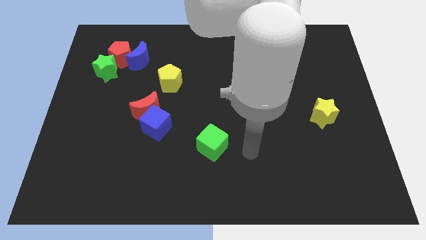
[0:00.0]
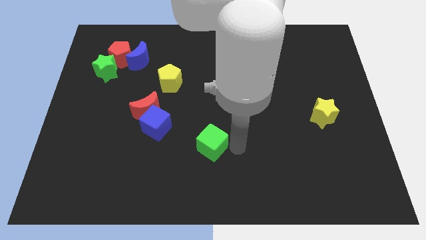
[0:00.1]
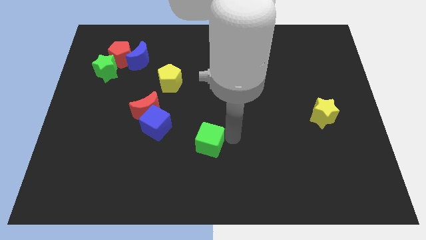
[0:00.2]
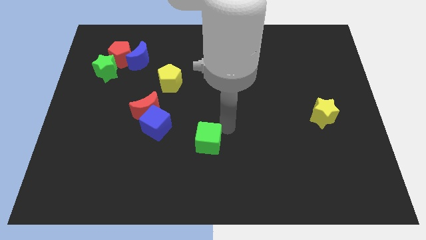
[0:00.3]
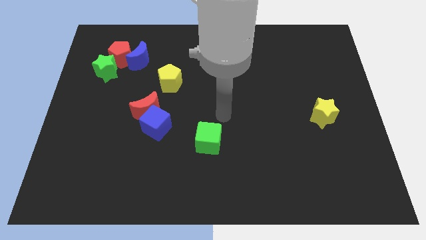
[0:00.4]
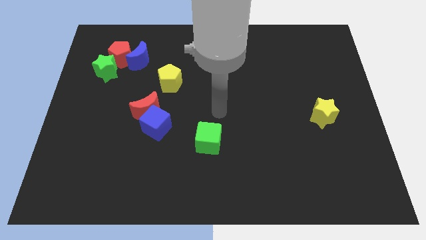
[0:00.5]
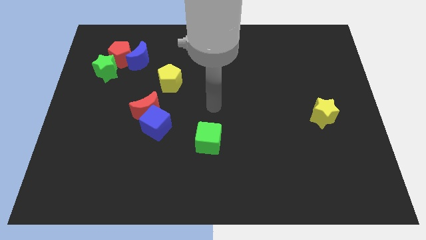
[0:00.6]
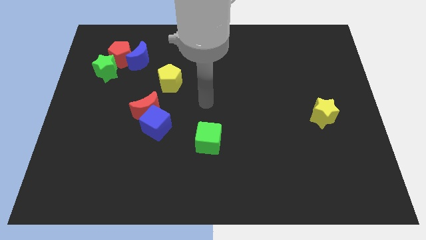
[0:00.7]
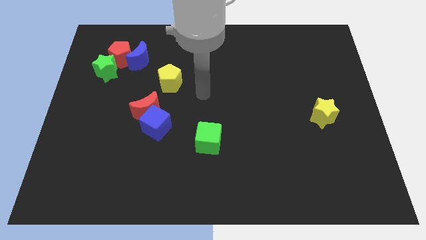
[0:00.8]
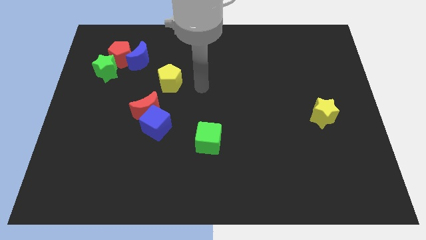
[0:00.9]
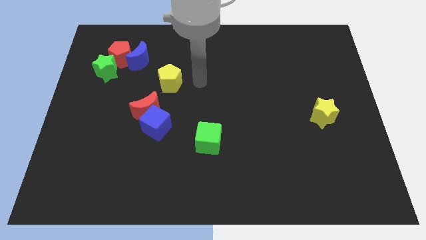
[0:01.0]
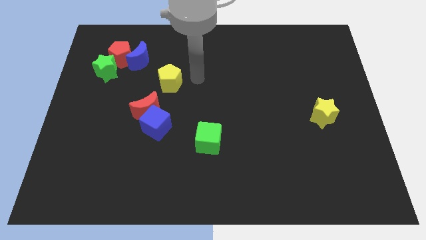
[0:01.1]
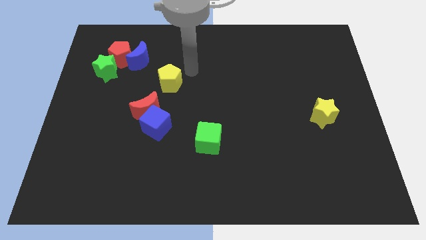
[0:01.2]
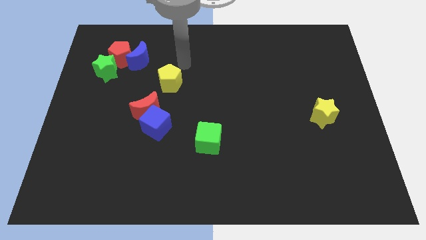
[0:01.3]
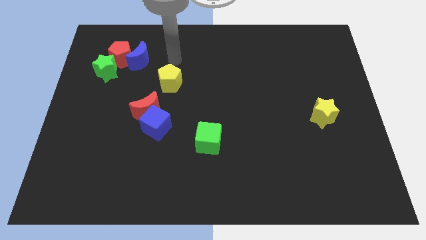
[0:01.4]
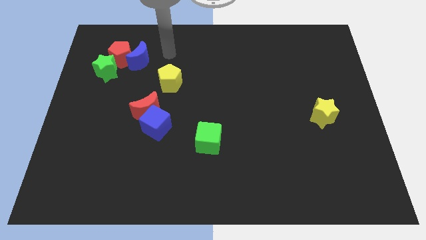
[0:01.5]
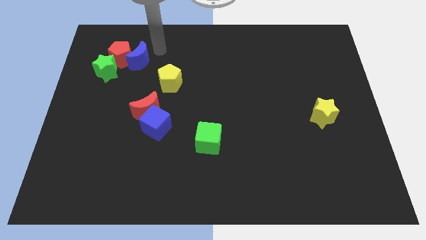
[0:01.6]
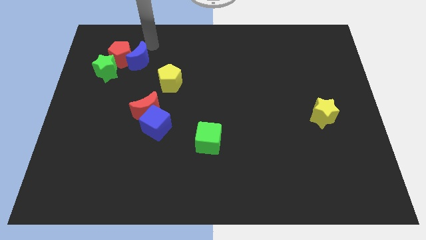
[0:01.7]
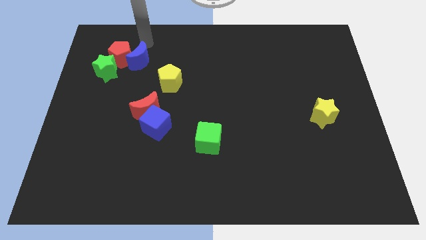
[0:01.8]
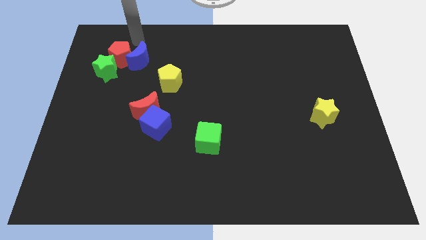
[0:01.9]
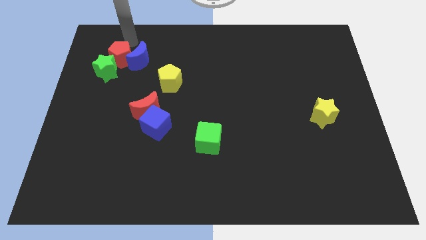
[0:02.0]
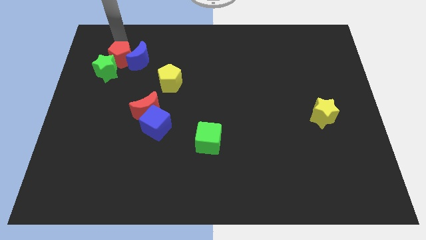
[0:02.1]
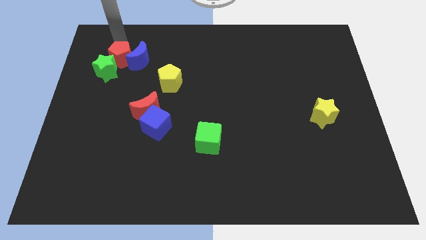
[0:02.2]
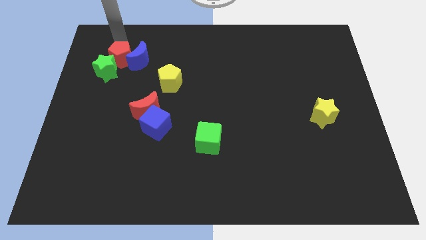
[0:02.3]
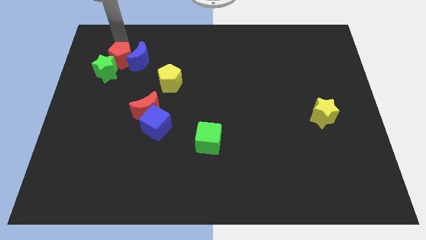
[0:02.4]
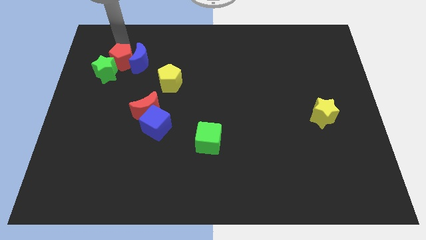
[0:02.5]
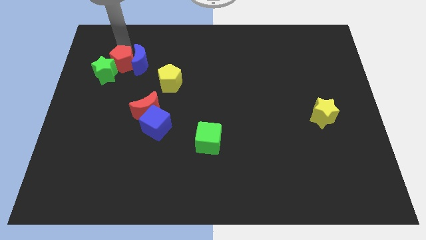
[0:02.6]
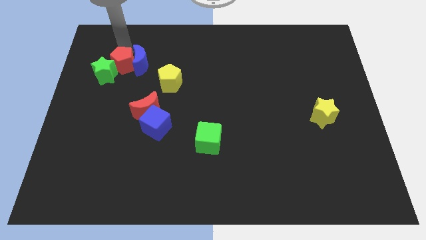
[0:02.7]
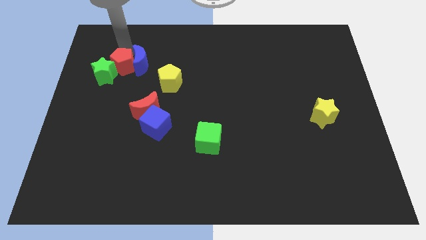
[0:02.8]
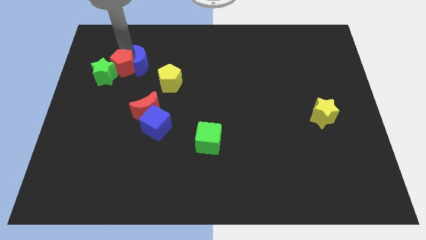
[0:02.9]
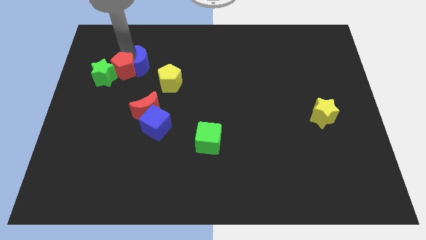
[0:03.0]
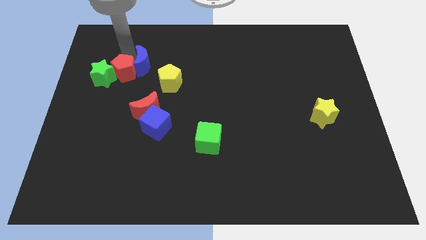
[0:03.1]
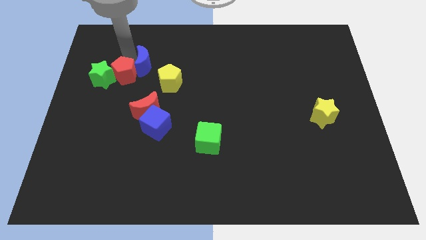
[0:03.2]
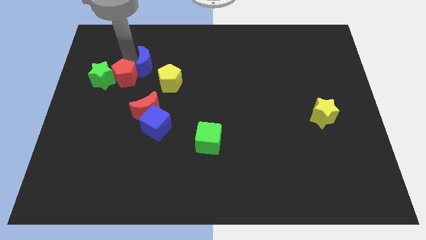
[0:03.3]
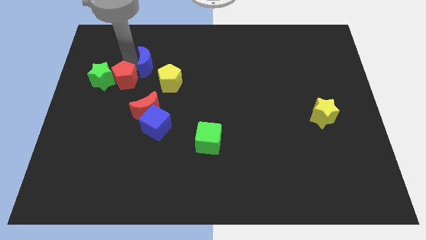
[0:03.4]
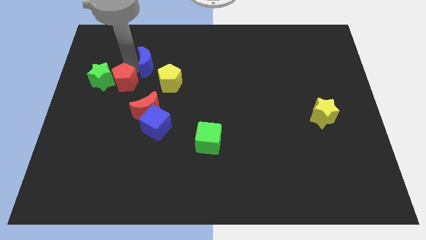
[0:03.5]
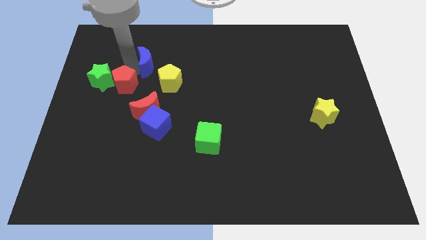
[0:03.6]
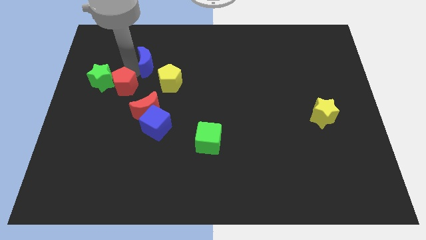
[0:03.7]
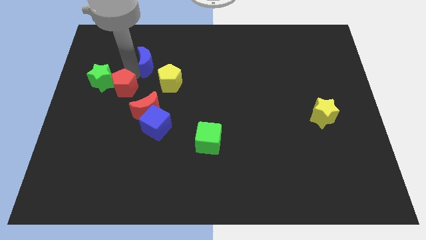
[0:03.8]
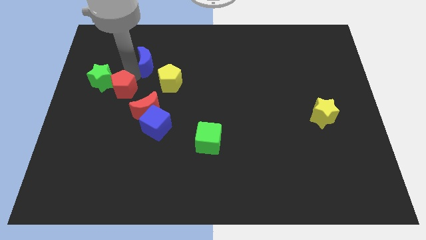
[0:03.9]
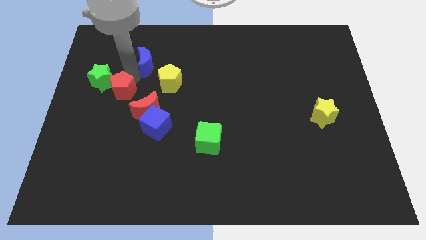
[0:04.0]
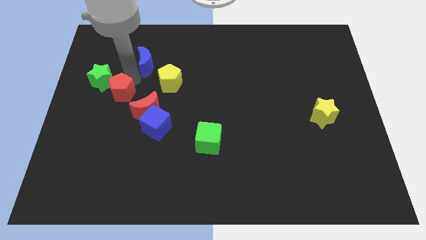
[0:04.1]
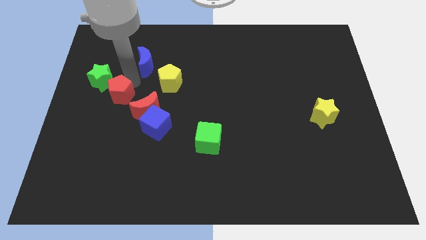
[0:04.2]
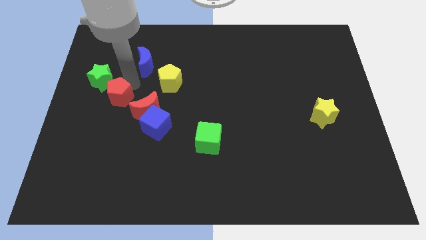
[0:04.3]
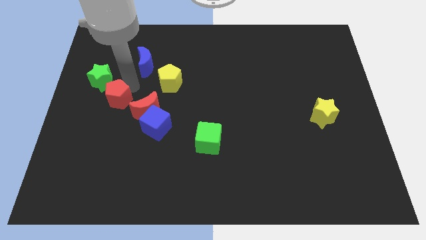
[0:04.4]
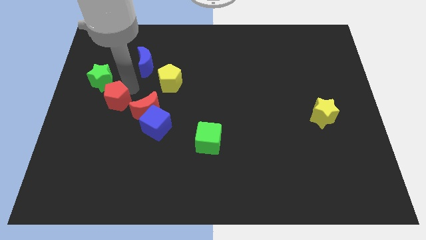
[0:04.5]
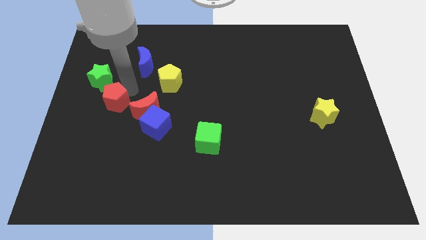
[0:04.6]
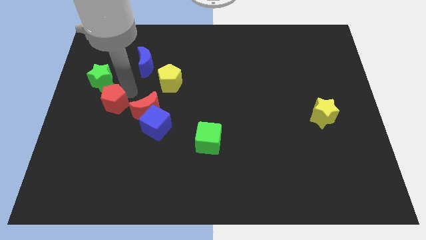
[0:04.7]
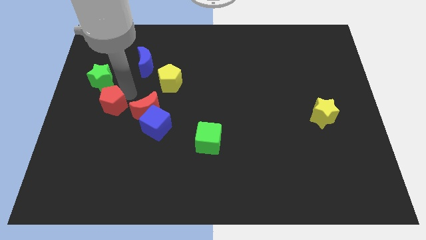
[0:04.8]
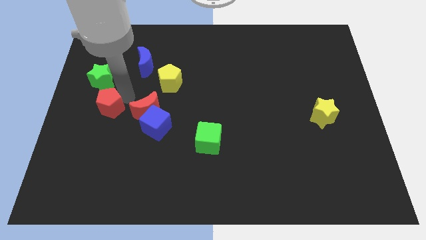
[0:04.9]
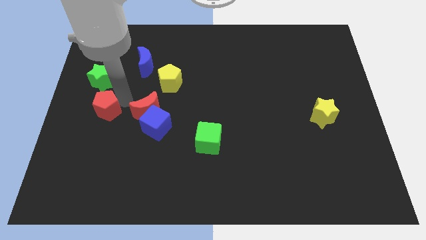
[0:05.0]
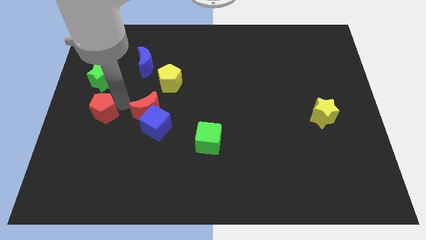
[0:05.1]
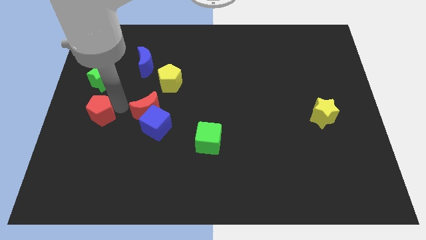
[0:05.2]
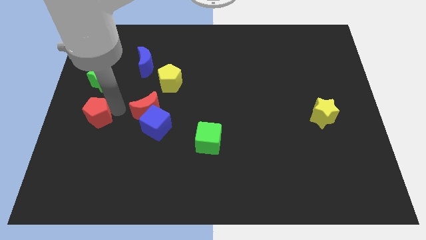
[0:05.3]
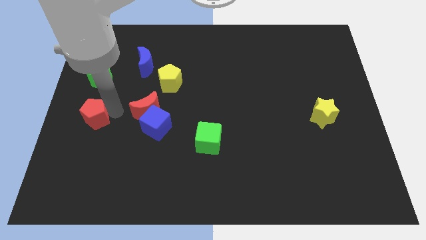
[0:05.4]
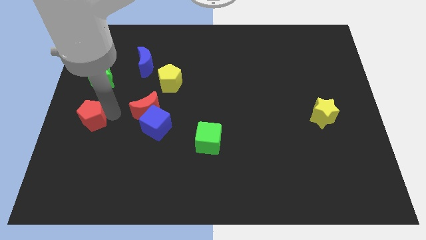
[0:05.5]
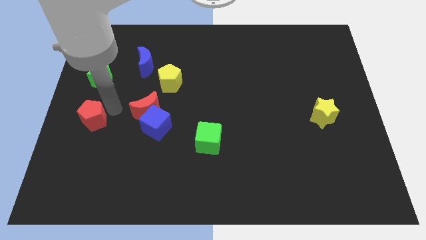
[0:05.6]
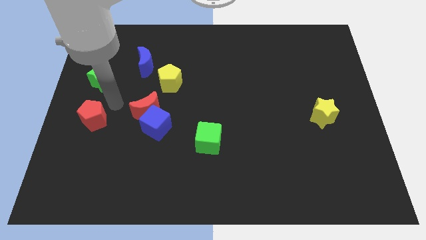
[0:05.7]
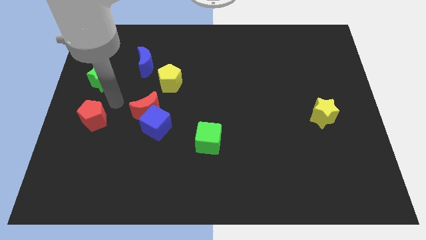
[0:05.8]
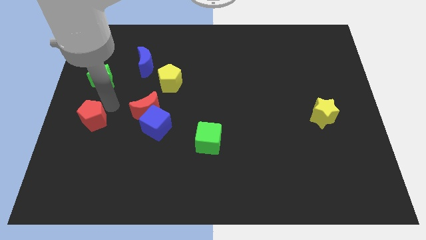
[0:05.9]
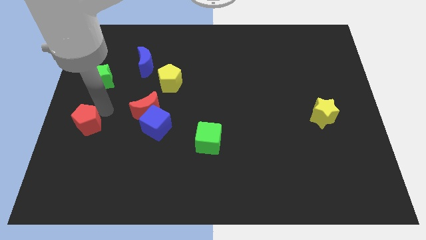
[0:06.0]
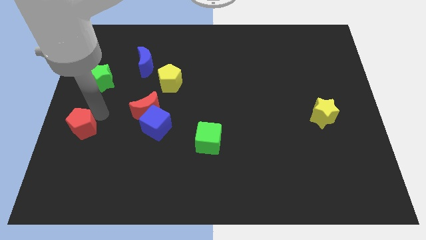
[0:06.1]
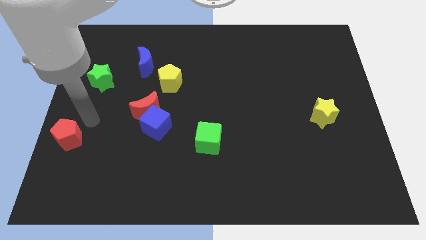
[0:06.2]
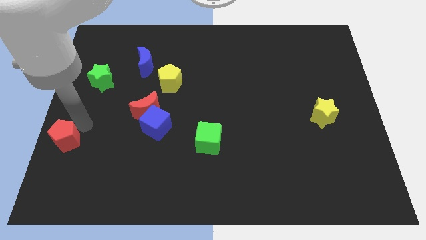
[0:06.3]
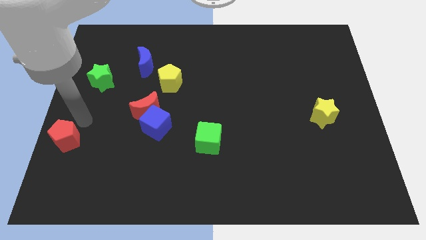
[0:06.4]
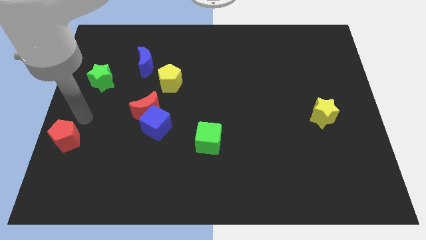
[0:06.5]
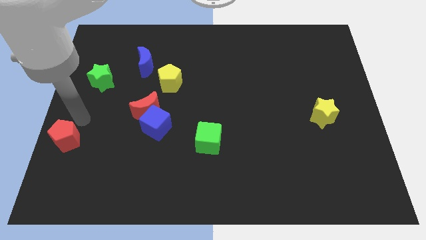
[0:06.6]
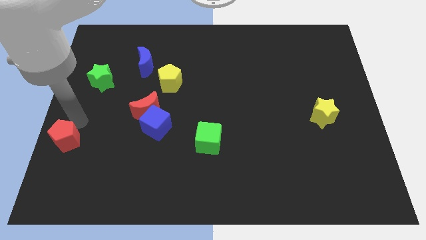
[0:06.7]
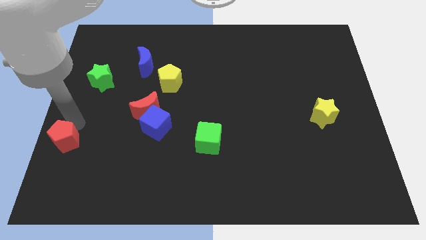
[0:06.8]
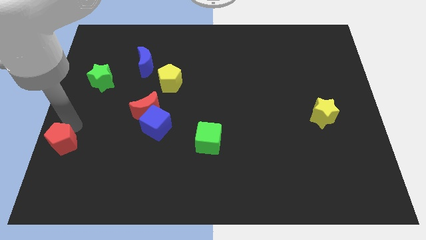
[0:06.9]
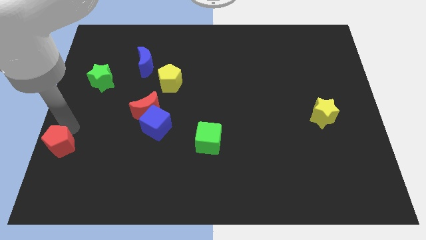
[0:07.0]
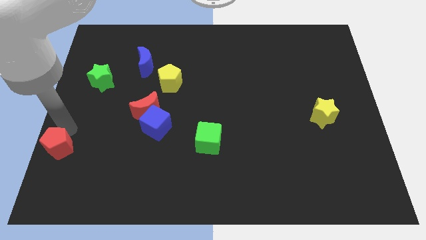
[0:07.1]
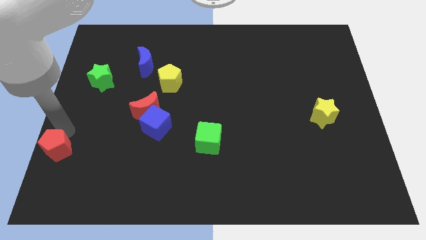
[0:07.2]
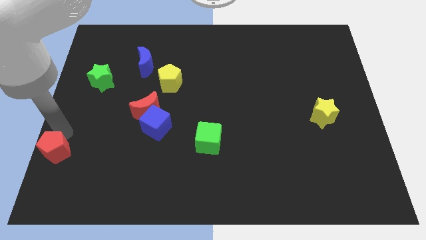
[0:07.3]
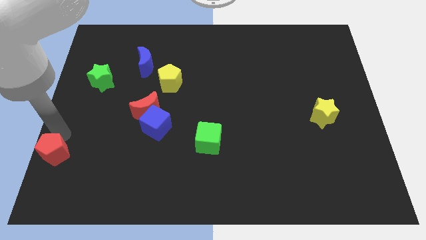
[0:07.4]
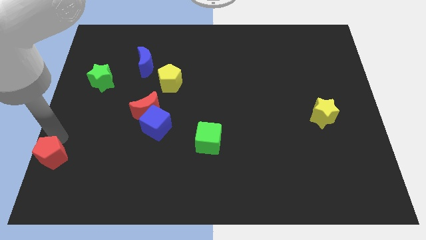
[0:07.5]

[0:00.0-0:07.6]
move the red pentagon to the lower left corner
